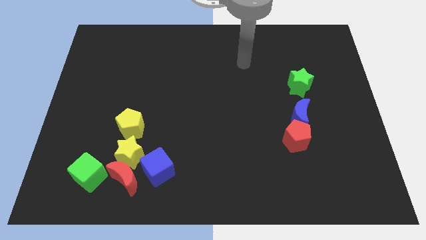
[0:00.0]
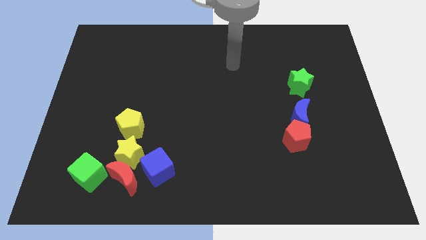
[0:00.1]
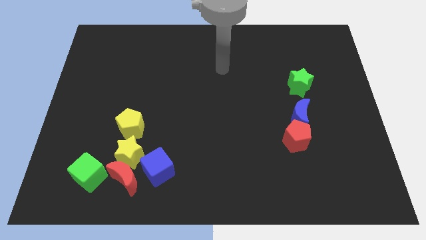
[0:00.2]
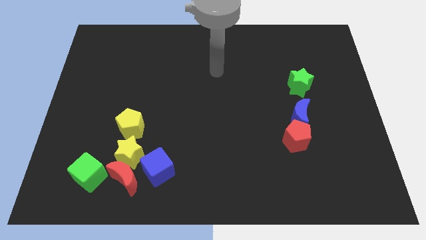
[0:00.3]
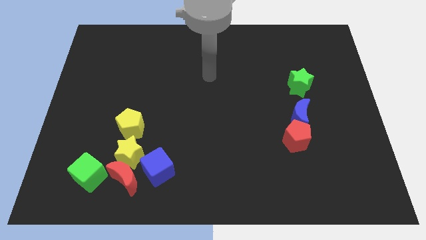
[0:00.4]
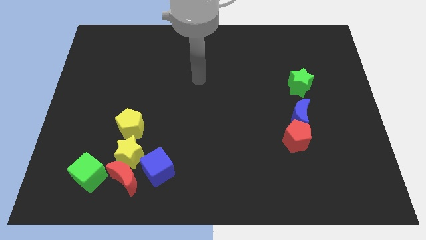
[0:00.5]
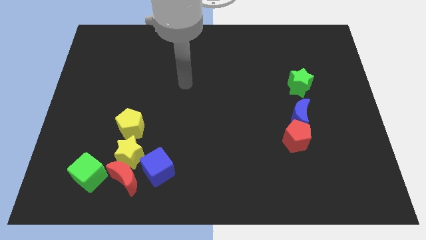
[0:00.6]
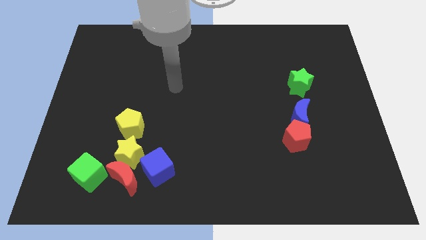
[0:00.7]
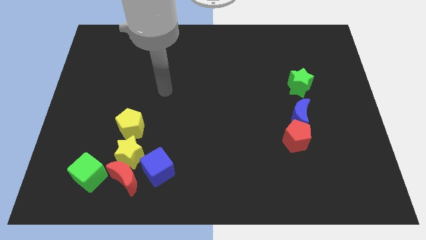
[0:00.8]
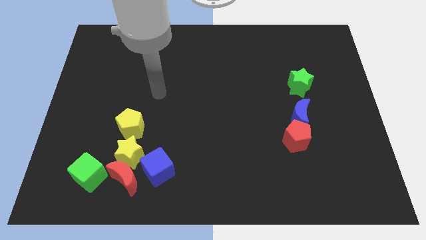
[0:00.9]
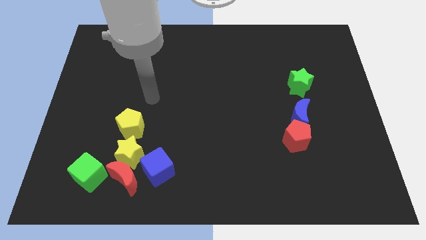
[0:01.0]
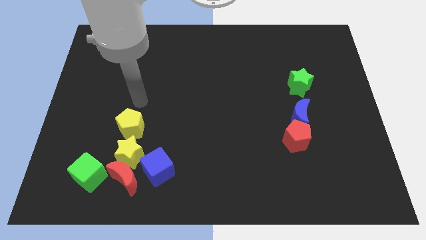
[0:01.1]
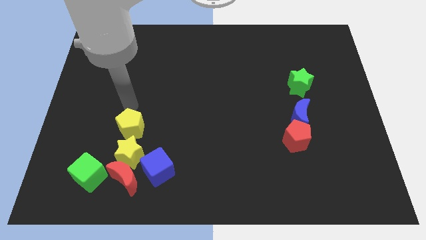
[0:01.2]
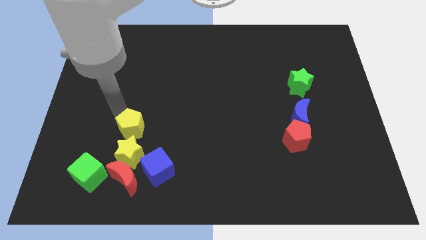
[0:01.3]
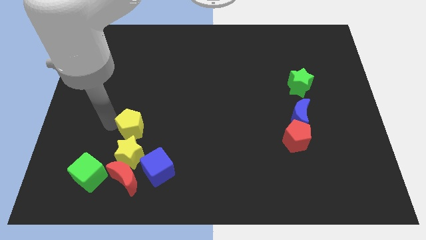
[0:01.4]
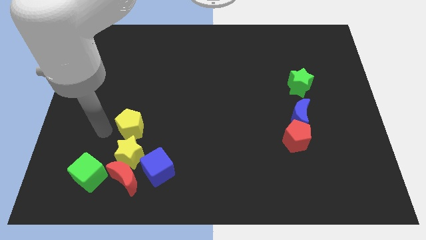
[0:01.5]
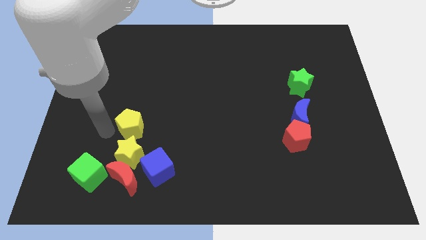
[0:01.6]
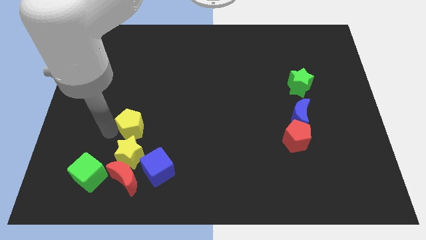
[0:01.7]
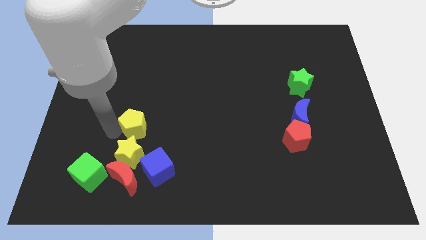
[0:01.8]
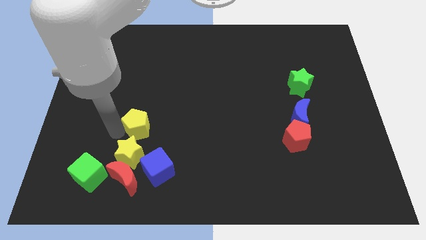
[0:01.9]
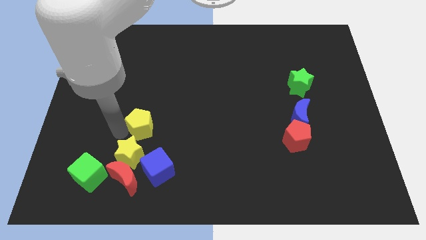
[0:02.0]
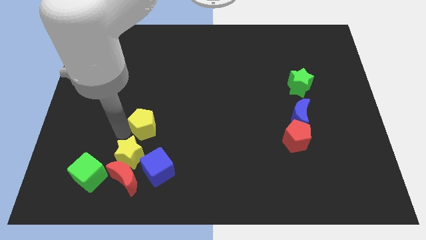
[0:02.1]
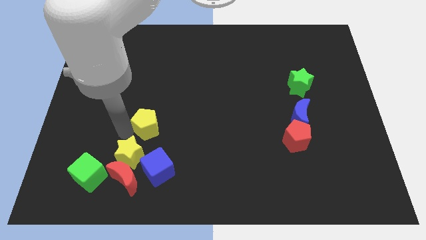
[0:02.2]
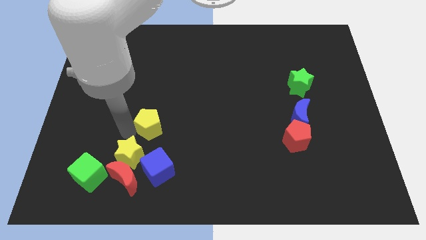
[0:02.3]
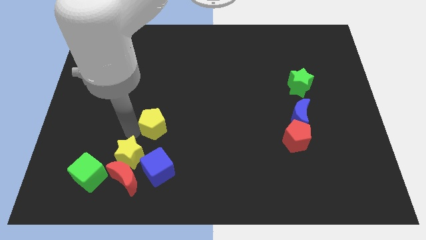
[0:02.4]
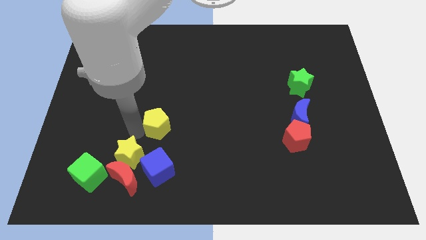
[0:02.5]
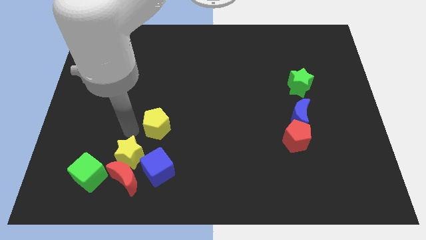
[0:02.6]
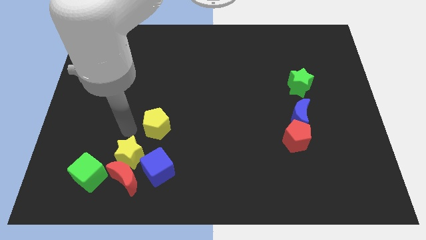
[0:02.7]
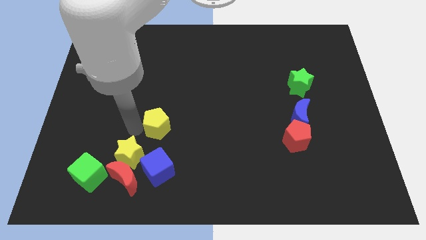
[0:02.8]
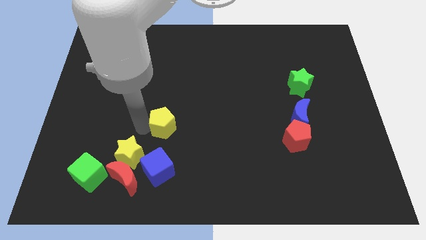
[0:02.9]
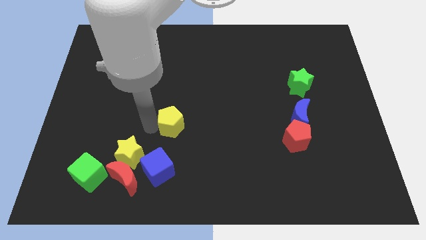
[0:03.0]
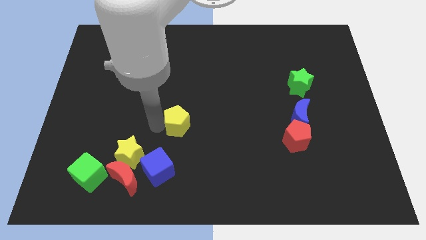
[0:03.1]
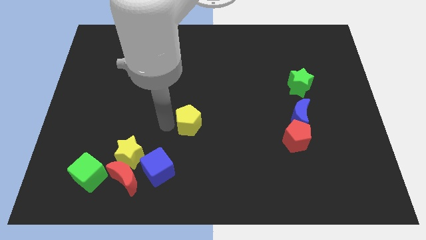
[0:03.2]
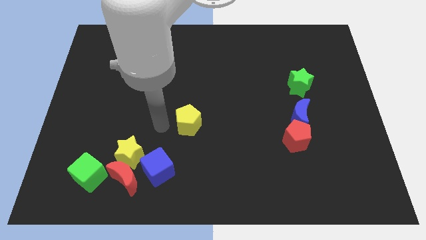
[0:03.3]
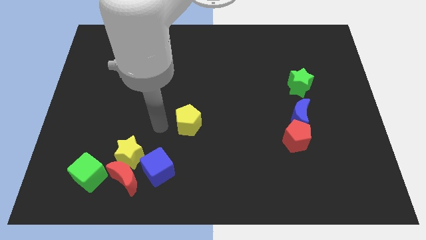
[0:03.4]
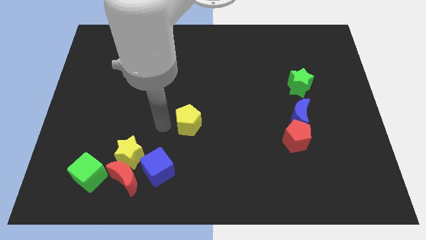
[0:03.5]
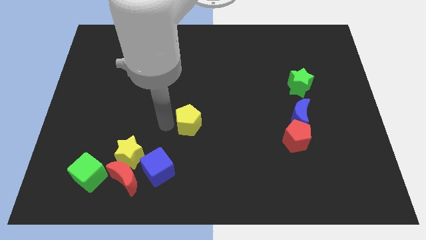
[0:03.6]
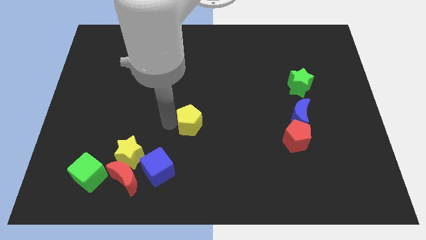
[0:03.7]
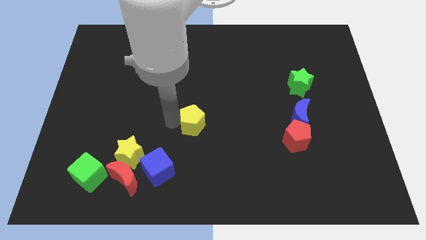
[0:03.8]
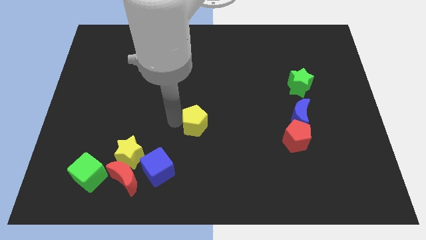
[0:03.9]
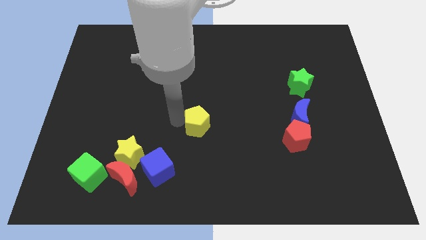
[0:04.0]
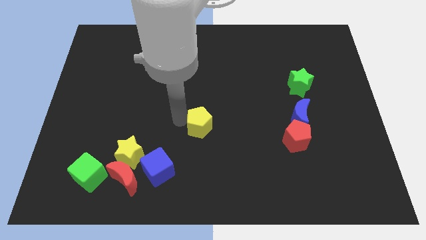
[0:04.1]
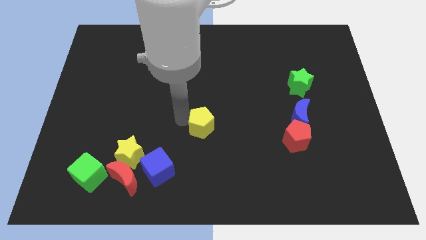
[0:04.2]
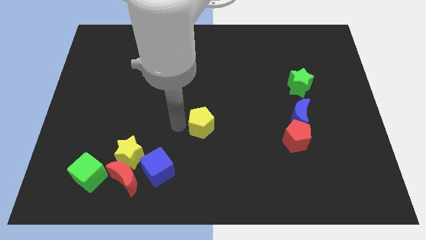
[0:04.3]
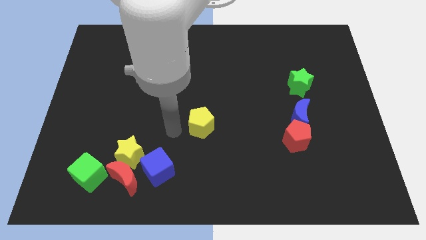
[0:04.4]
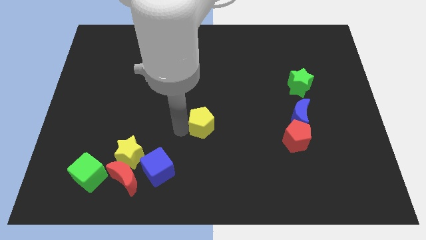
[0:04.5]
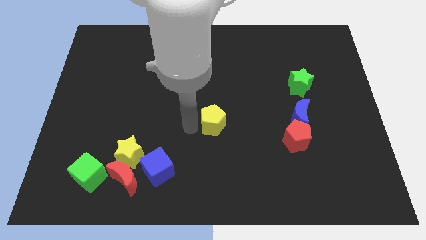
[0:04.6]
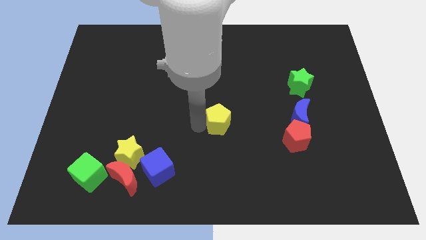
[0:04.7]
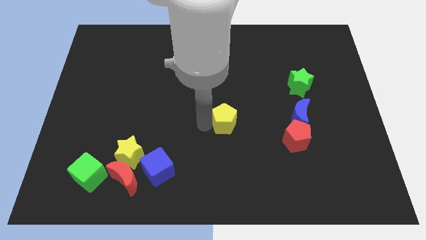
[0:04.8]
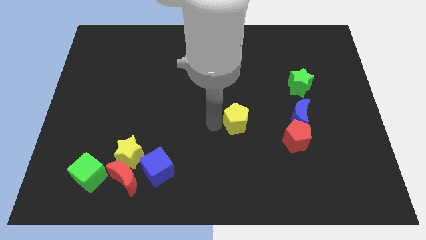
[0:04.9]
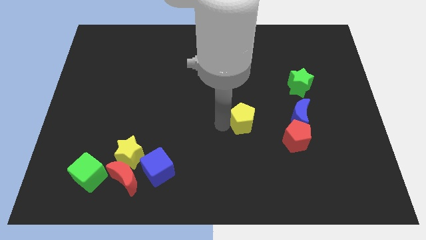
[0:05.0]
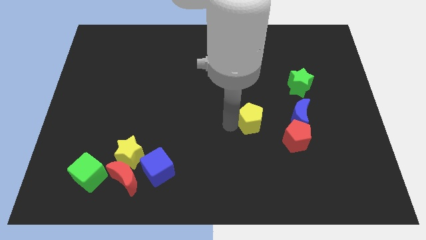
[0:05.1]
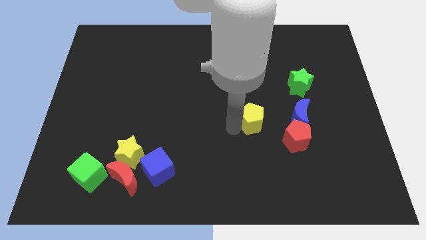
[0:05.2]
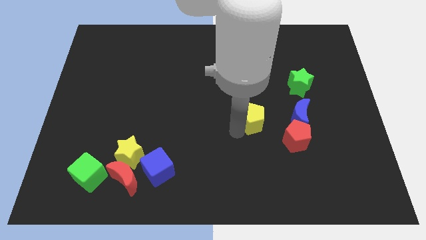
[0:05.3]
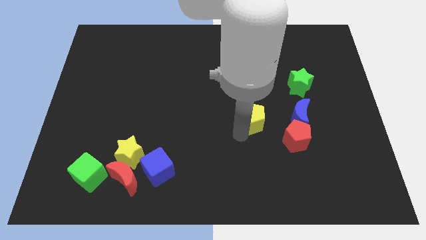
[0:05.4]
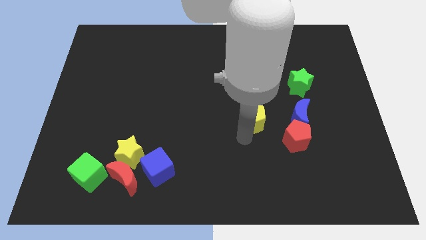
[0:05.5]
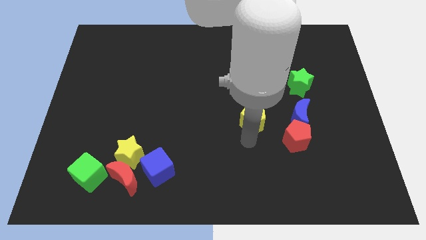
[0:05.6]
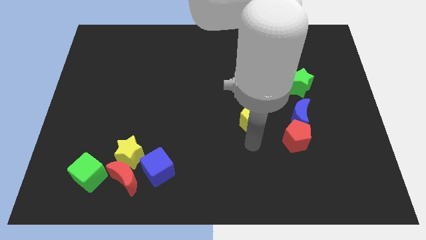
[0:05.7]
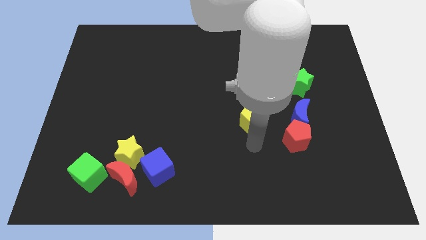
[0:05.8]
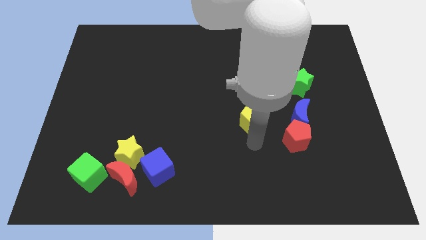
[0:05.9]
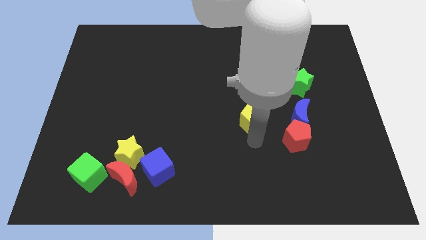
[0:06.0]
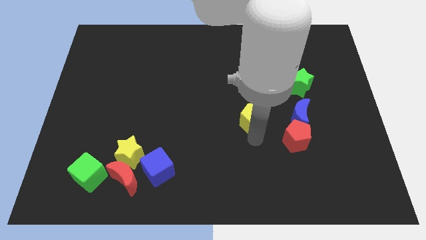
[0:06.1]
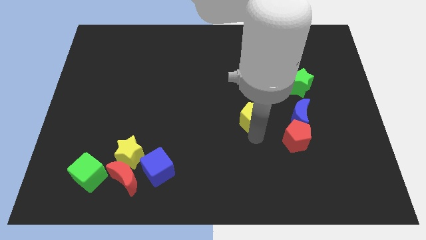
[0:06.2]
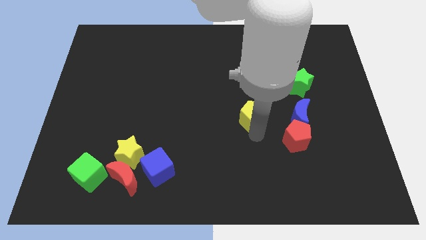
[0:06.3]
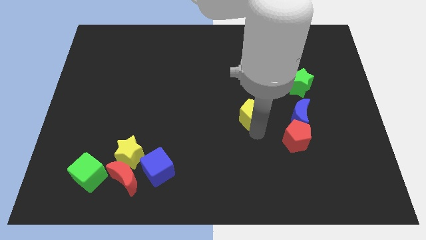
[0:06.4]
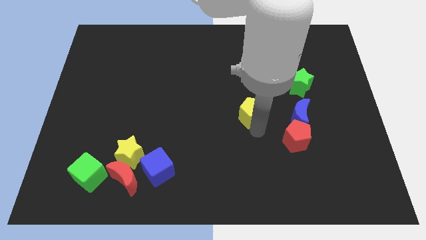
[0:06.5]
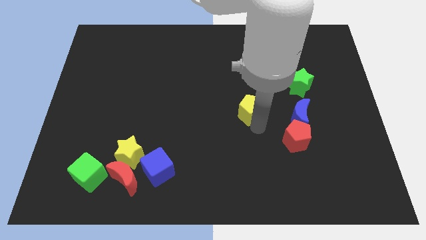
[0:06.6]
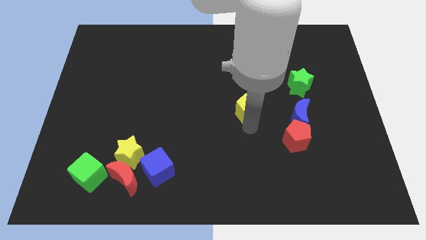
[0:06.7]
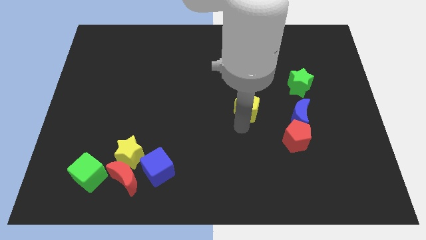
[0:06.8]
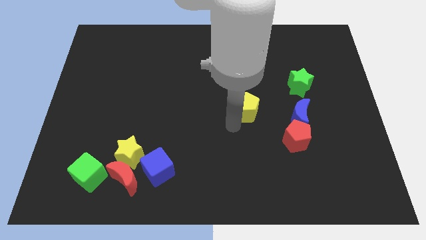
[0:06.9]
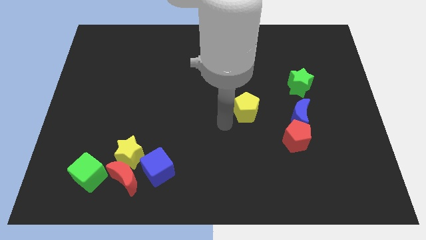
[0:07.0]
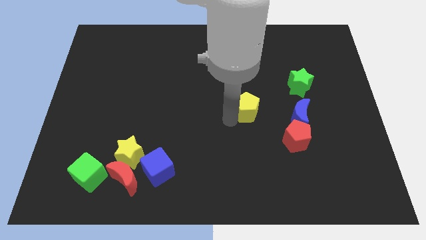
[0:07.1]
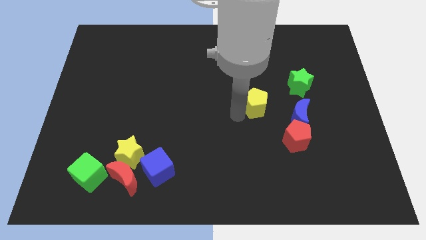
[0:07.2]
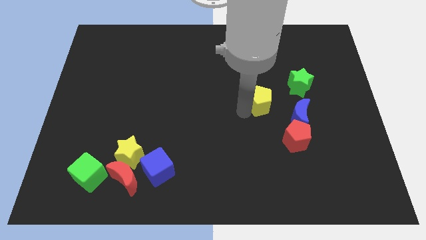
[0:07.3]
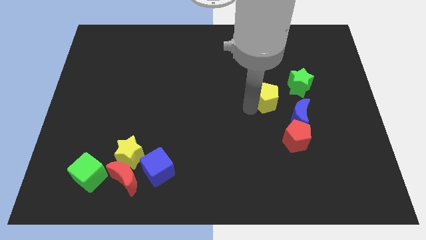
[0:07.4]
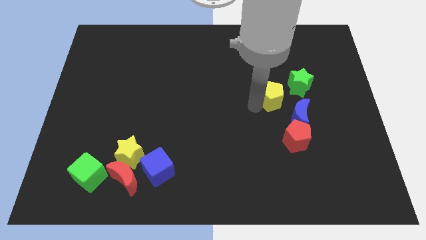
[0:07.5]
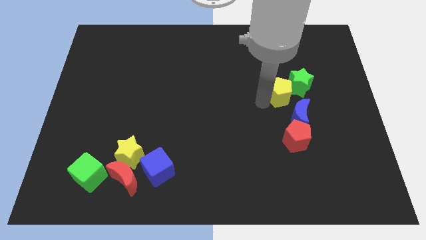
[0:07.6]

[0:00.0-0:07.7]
put the yellow pentagon next to the green star
